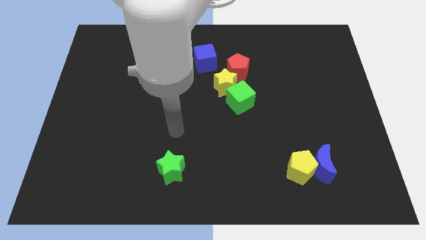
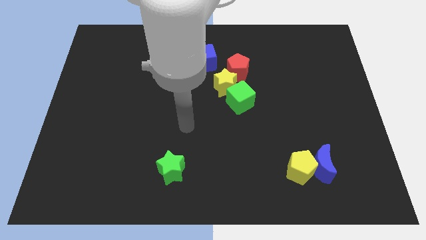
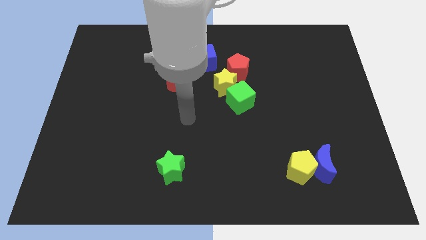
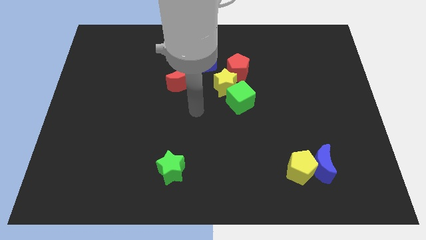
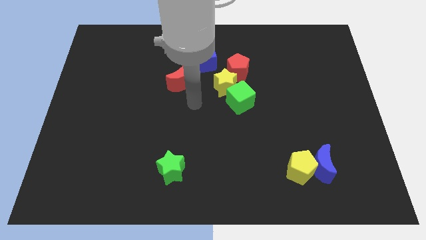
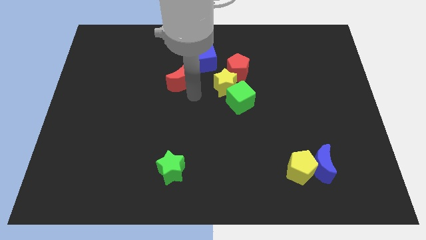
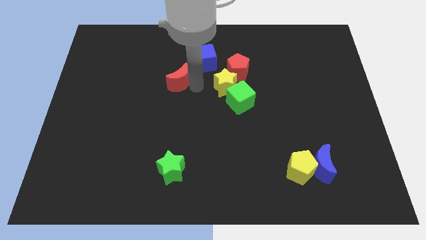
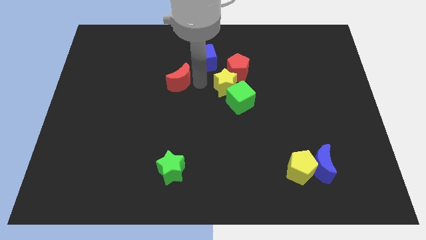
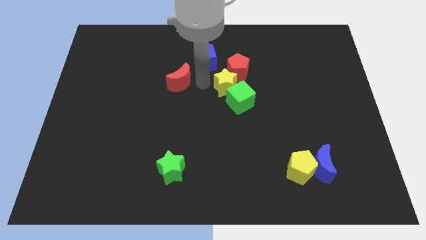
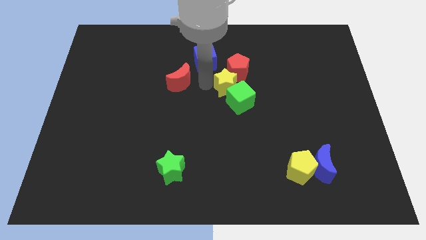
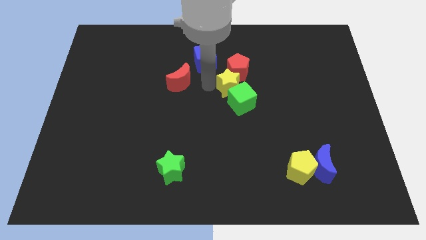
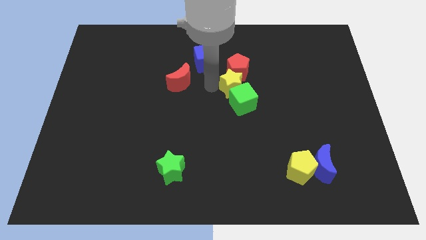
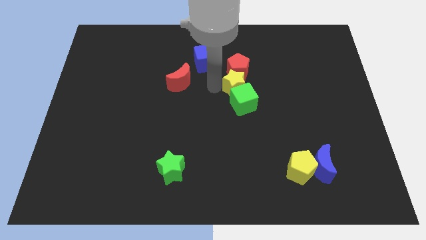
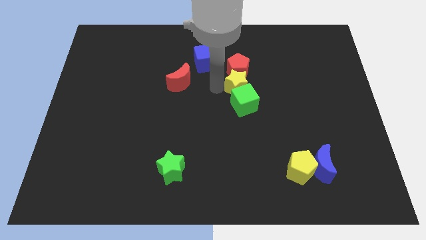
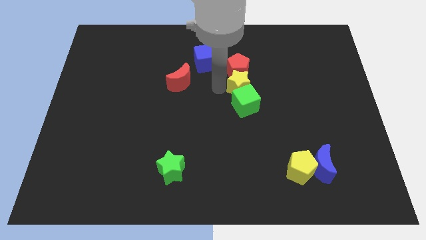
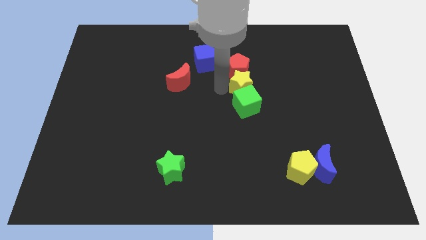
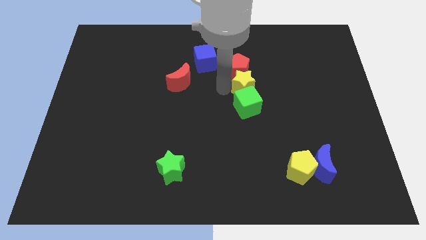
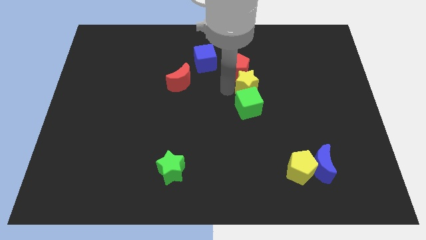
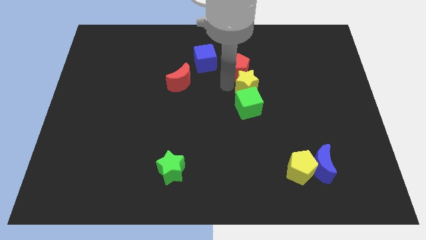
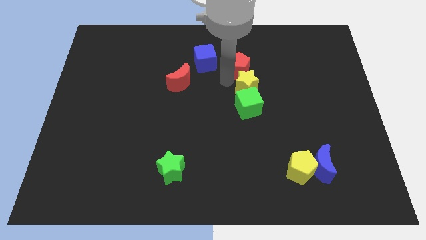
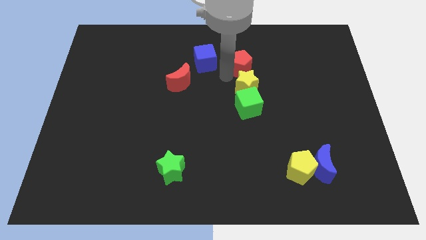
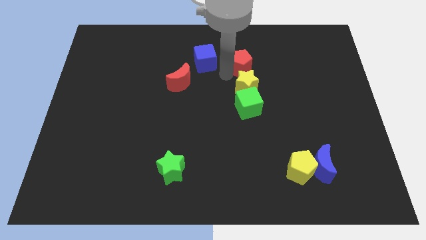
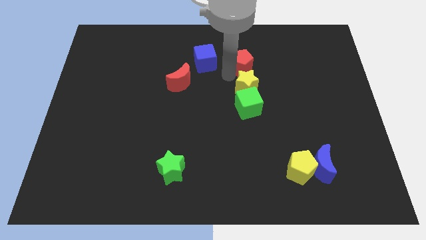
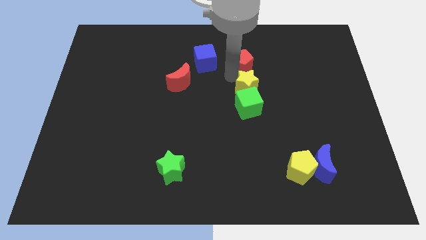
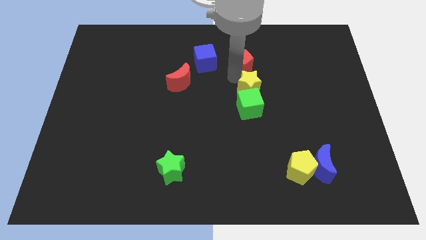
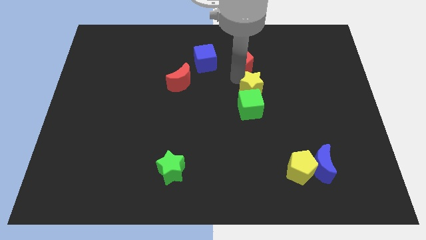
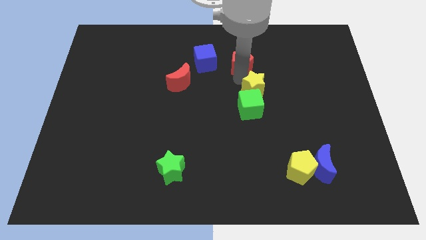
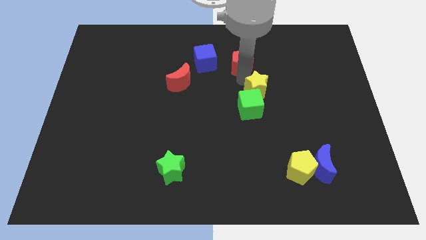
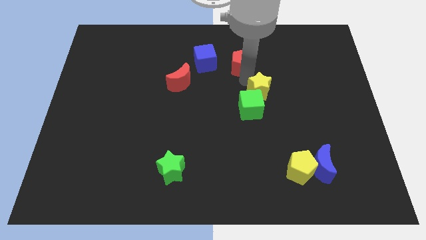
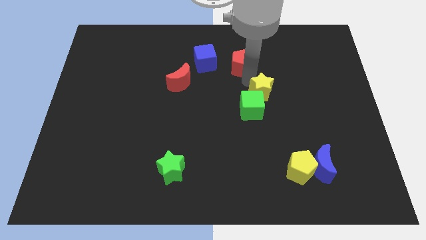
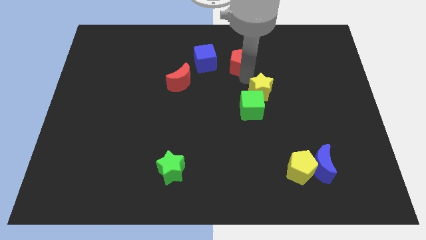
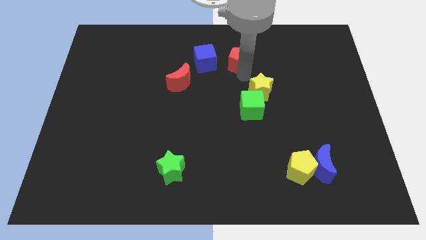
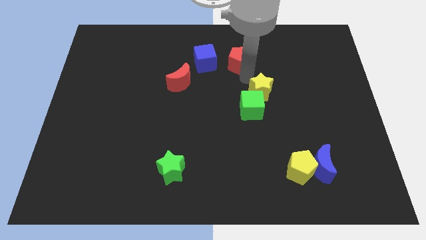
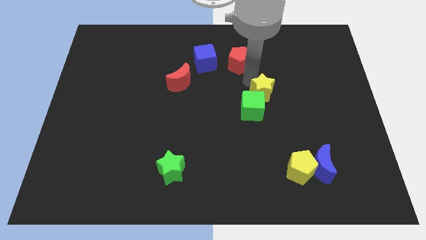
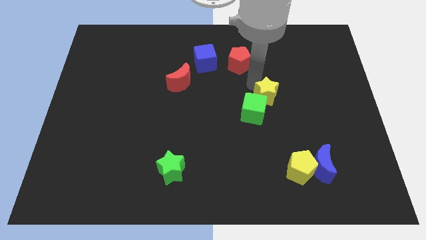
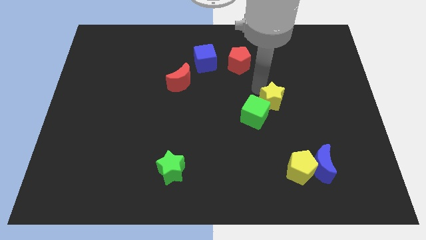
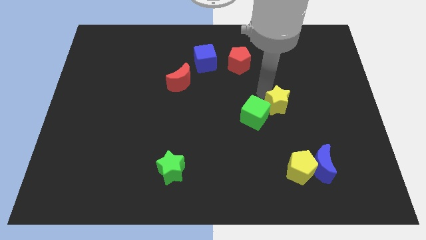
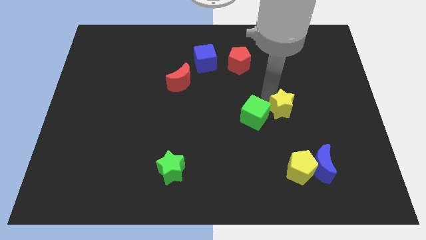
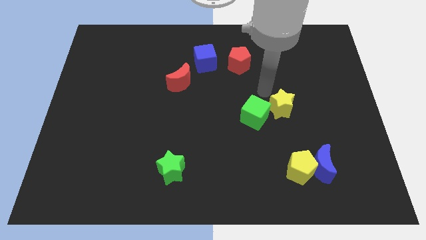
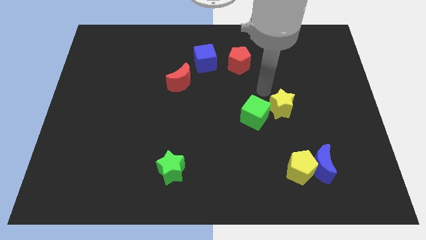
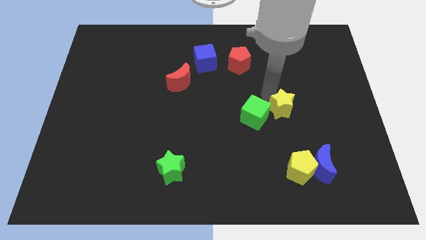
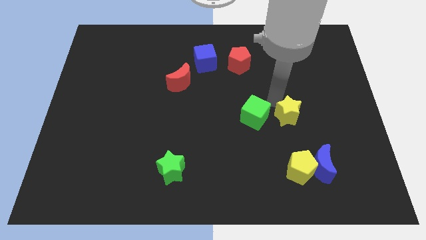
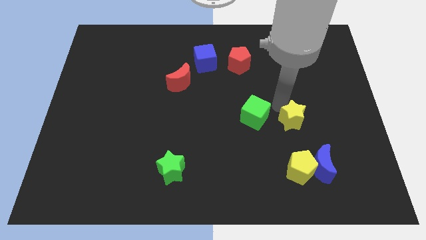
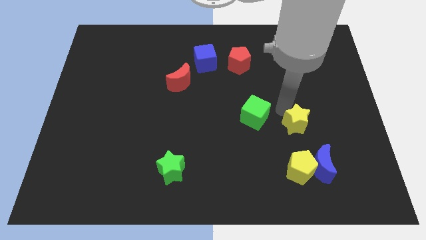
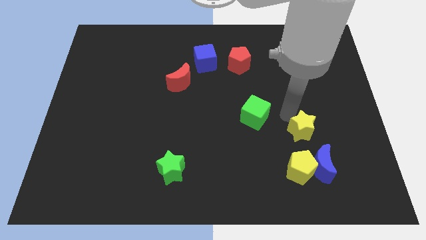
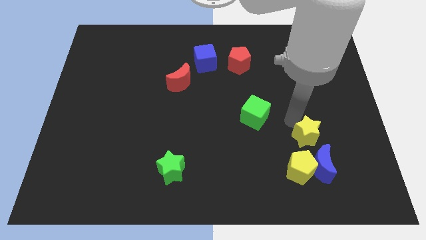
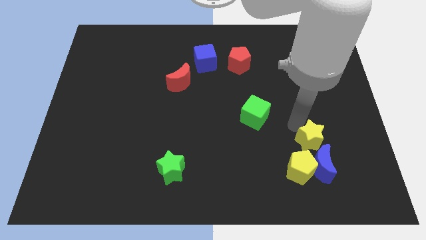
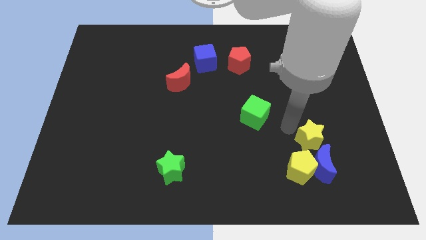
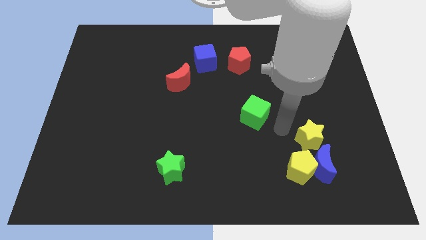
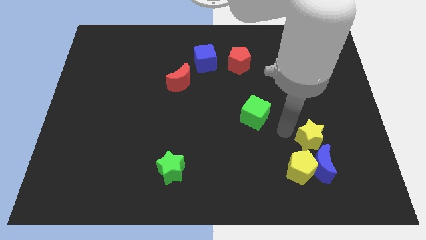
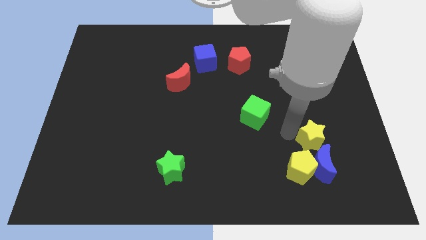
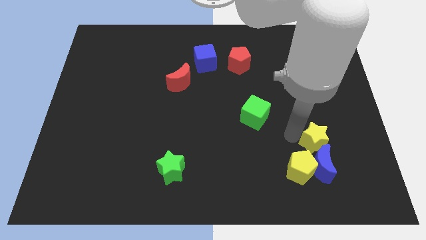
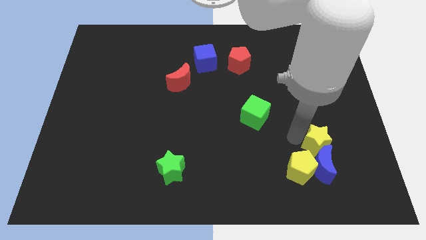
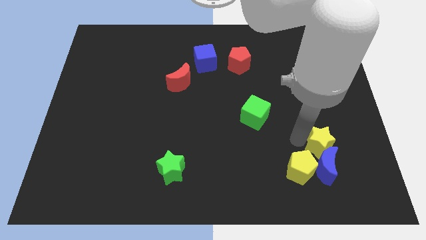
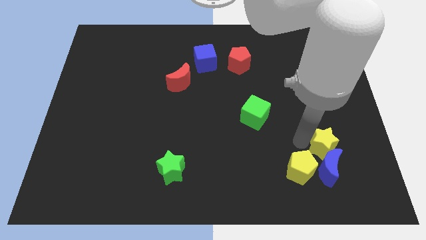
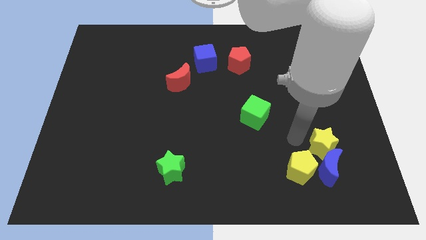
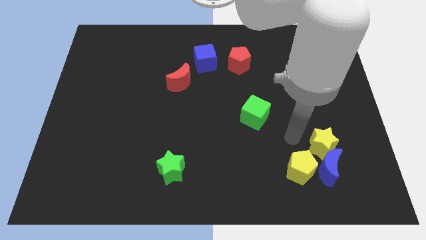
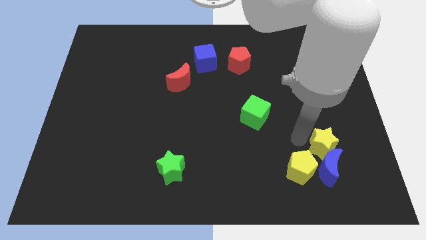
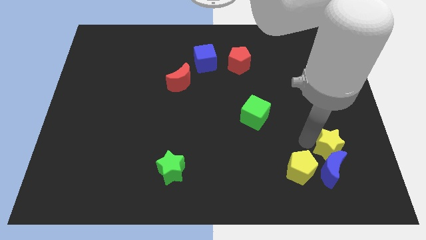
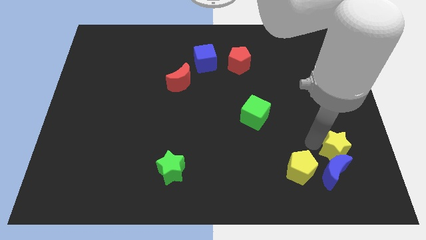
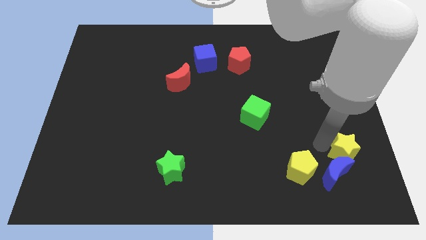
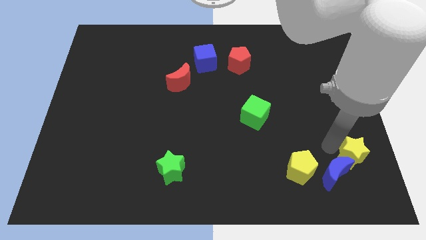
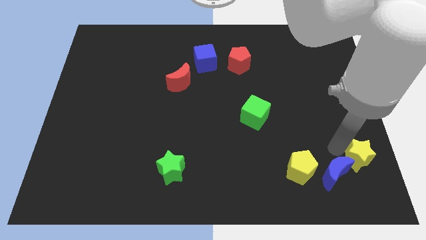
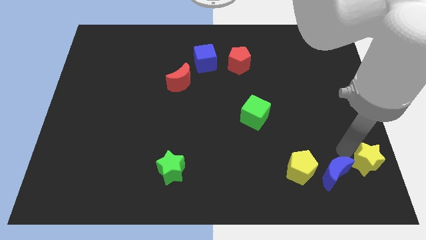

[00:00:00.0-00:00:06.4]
push the yellow star to the bottom right of the board
